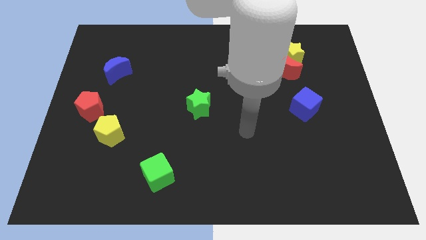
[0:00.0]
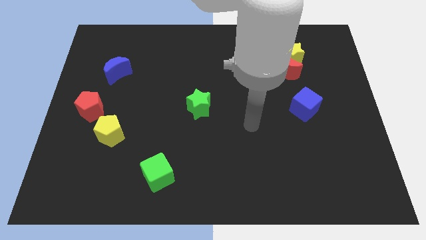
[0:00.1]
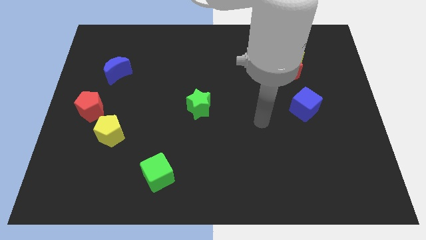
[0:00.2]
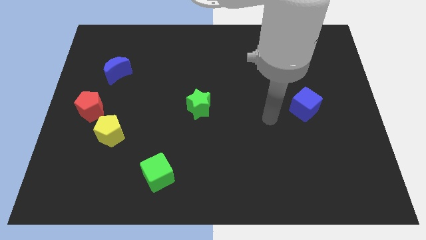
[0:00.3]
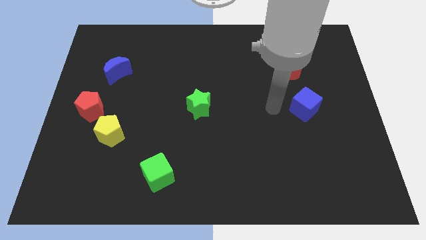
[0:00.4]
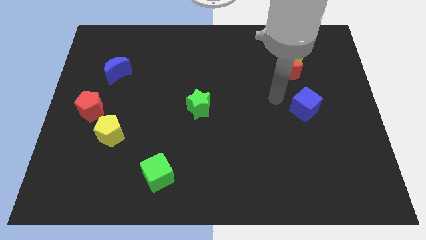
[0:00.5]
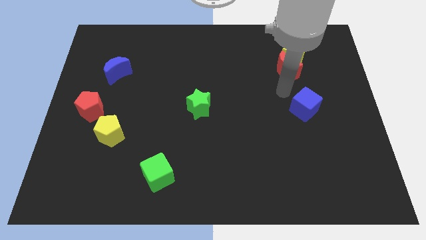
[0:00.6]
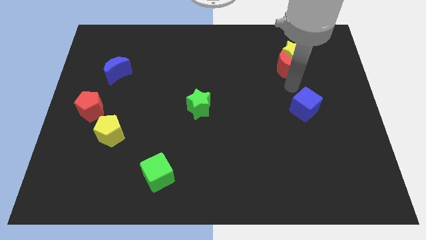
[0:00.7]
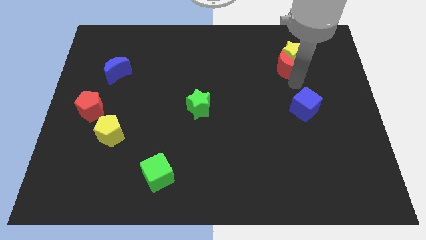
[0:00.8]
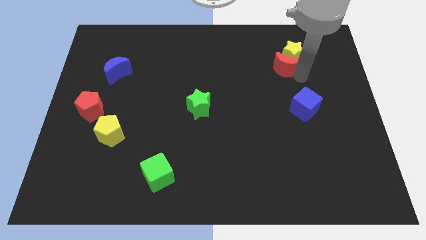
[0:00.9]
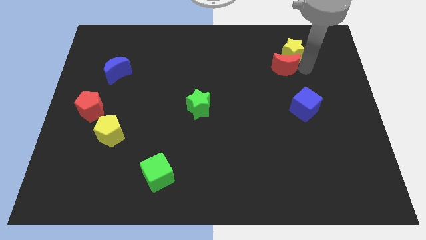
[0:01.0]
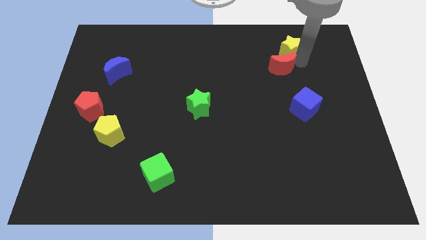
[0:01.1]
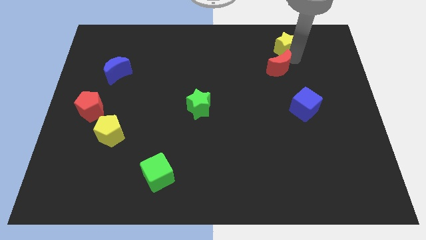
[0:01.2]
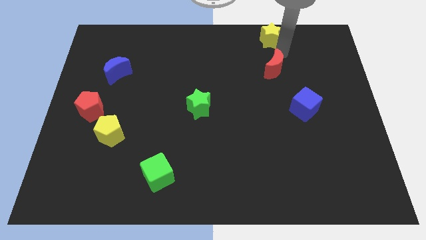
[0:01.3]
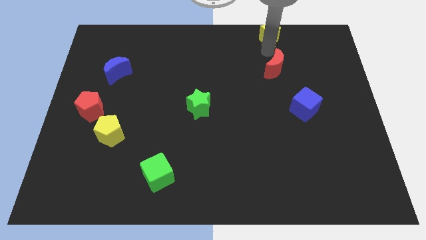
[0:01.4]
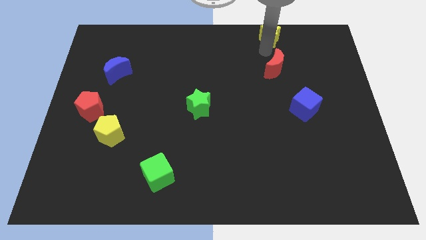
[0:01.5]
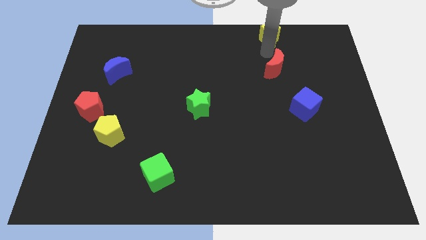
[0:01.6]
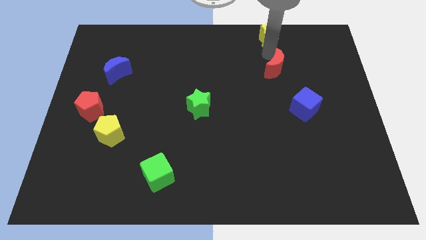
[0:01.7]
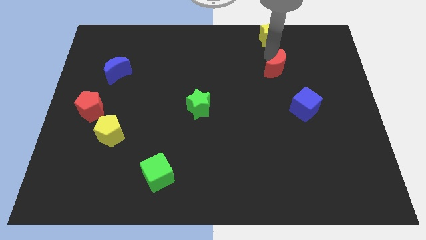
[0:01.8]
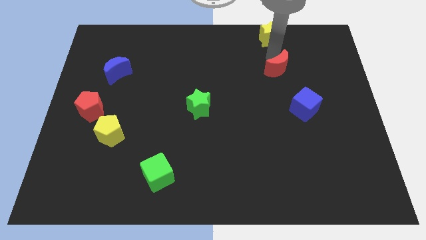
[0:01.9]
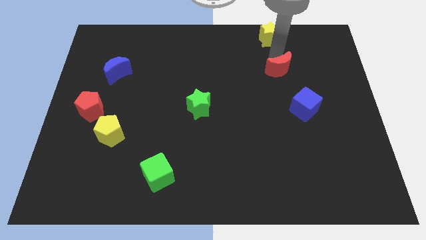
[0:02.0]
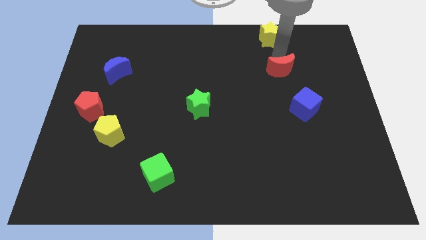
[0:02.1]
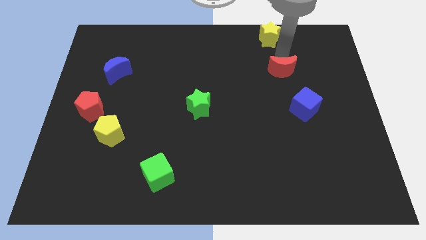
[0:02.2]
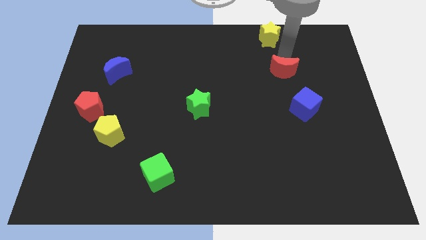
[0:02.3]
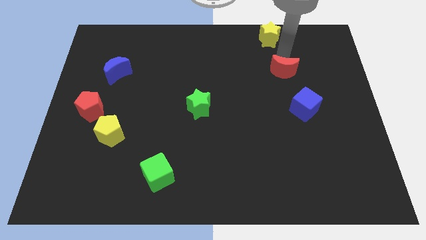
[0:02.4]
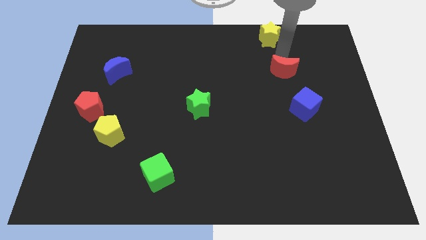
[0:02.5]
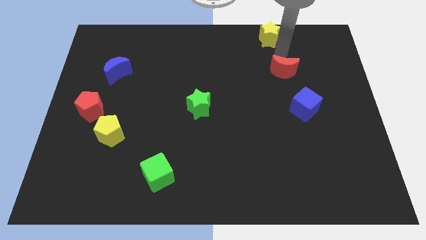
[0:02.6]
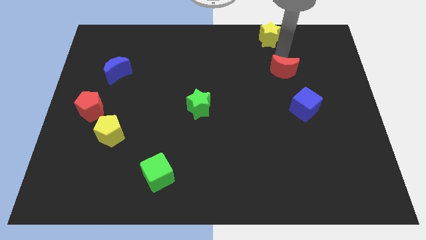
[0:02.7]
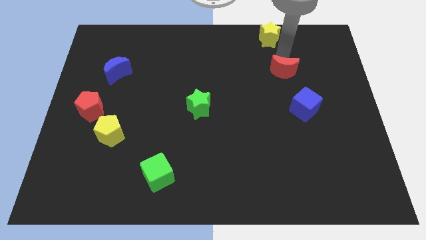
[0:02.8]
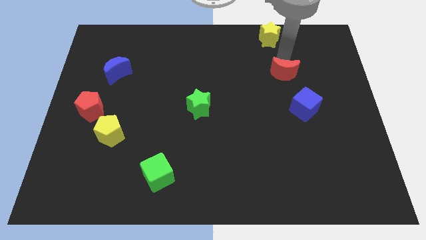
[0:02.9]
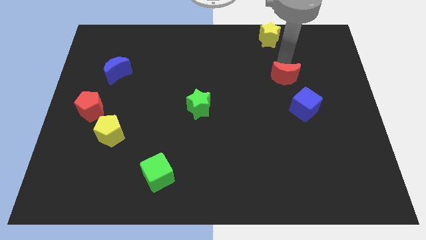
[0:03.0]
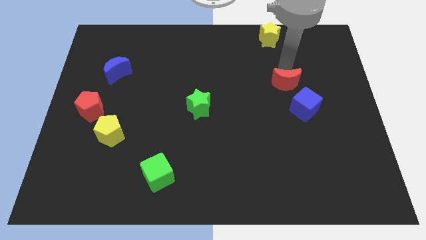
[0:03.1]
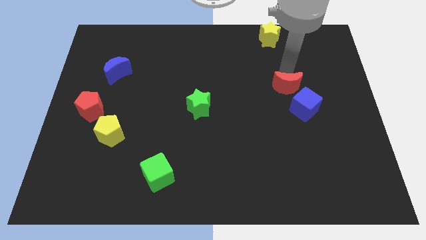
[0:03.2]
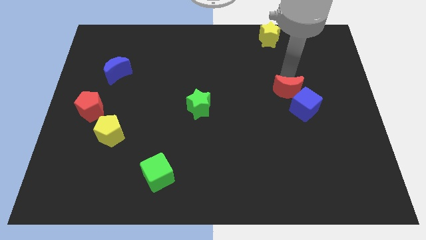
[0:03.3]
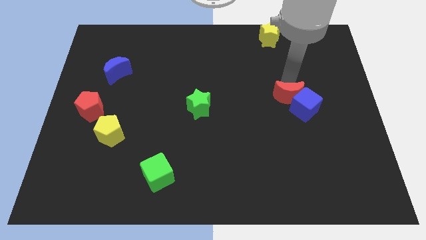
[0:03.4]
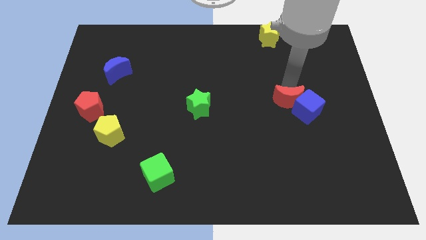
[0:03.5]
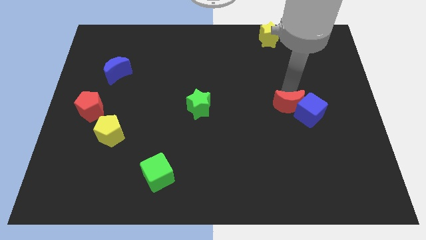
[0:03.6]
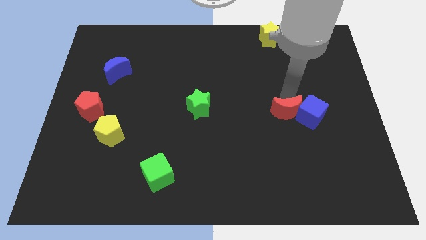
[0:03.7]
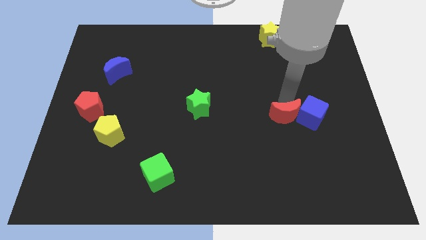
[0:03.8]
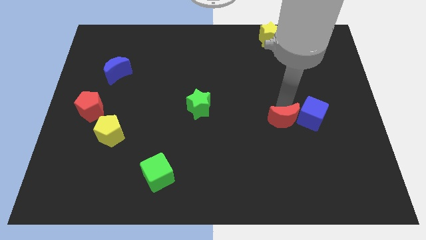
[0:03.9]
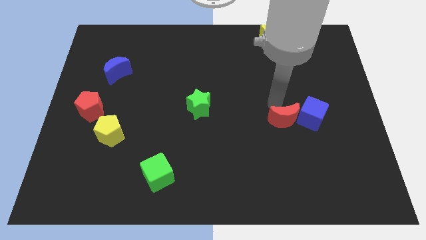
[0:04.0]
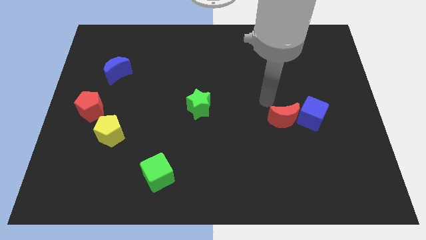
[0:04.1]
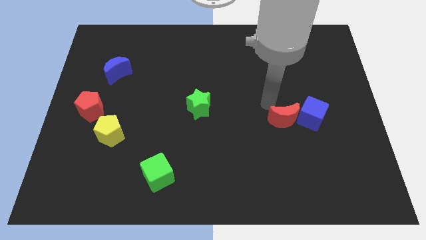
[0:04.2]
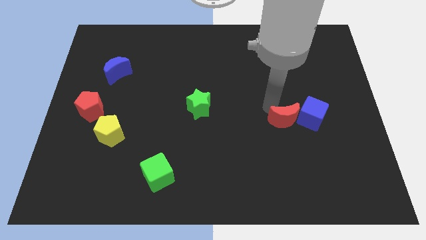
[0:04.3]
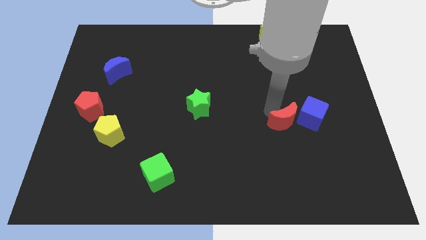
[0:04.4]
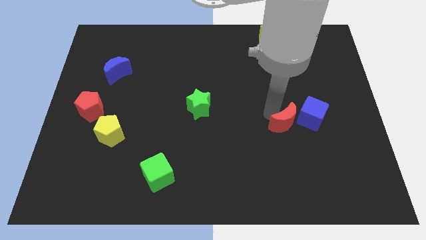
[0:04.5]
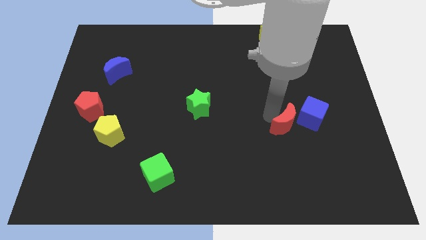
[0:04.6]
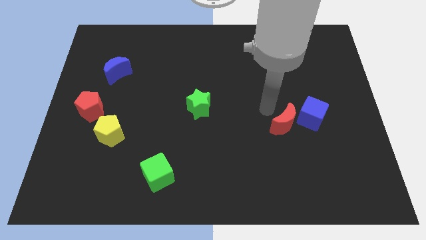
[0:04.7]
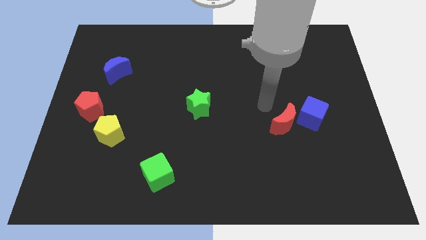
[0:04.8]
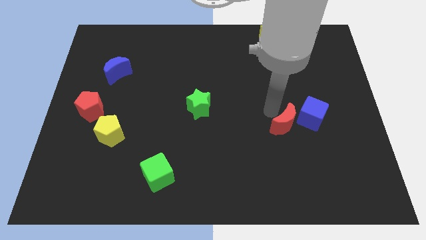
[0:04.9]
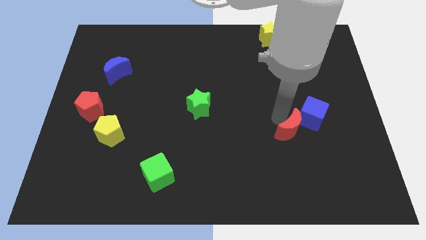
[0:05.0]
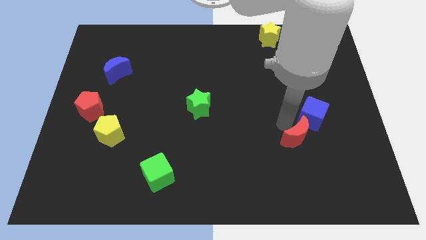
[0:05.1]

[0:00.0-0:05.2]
put the red moon to the bottom of the blue cube

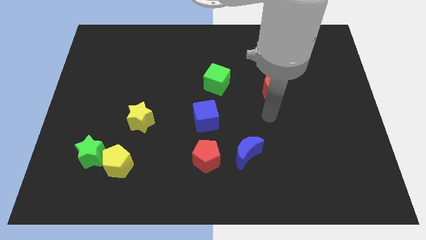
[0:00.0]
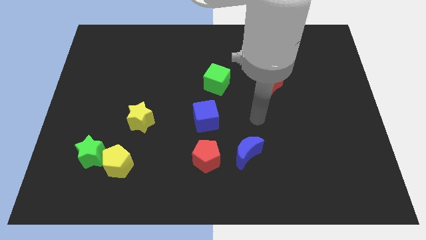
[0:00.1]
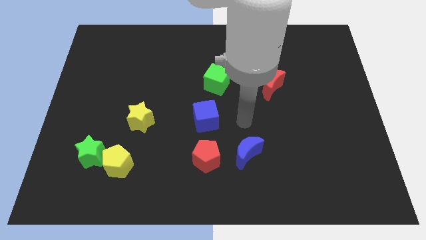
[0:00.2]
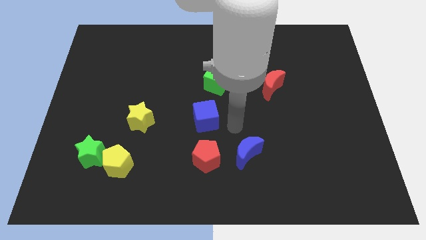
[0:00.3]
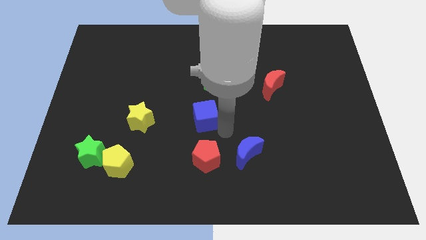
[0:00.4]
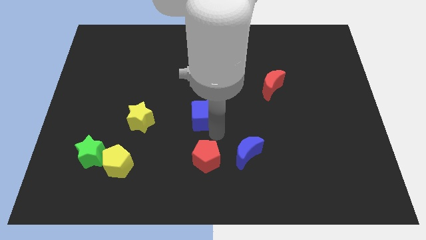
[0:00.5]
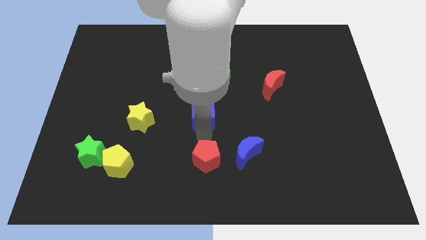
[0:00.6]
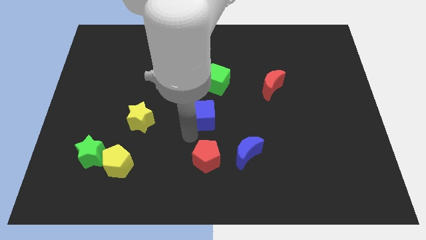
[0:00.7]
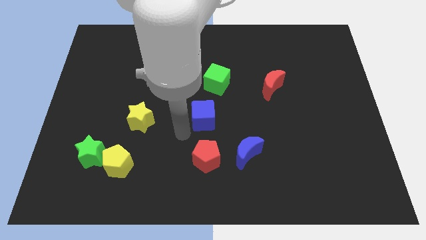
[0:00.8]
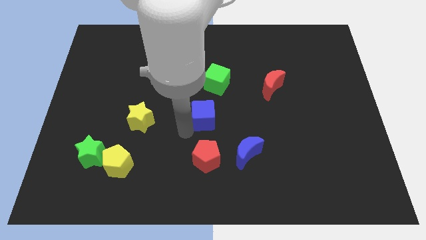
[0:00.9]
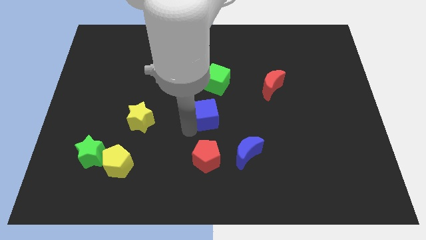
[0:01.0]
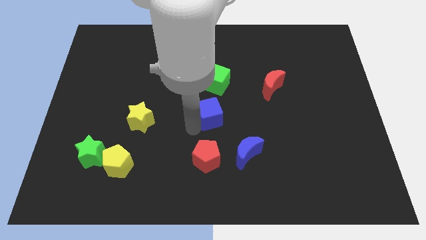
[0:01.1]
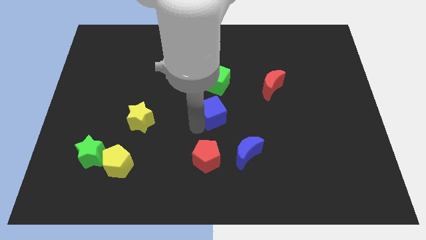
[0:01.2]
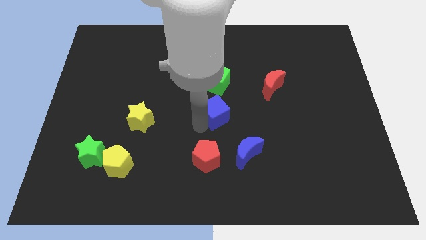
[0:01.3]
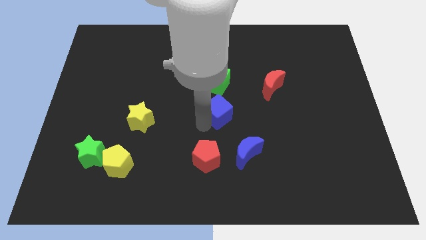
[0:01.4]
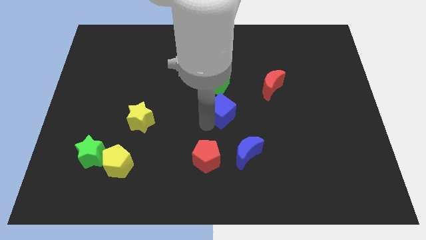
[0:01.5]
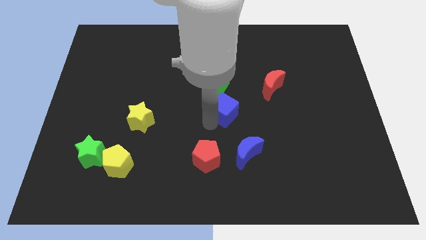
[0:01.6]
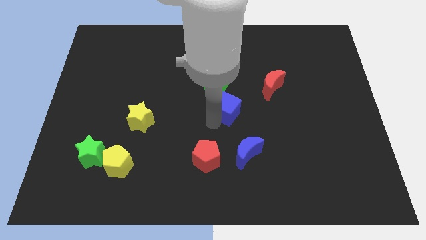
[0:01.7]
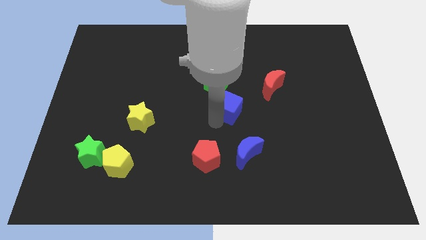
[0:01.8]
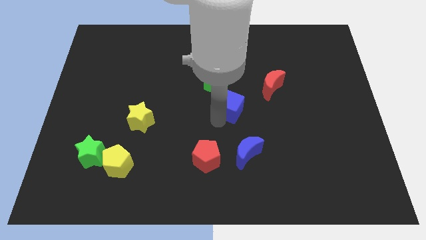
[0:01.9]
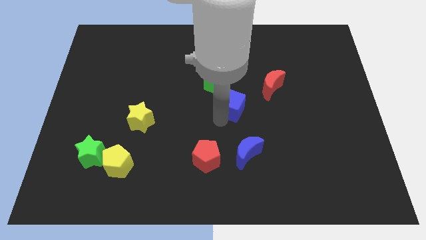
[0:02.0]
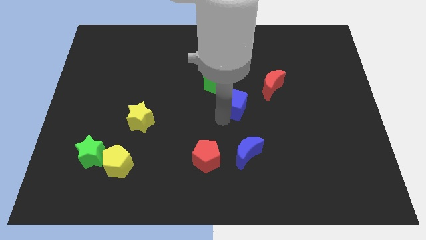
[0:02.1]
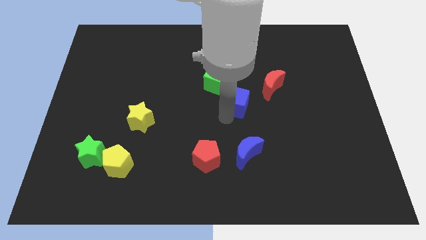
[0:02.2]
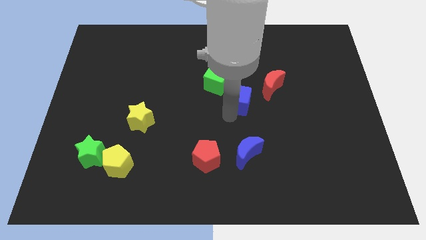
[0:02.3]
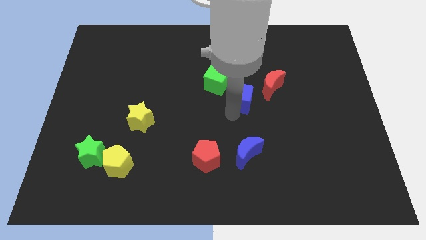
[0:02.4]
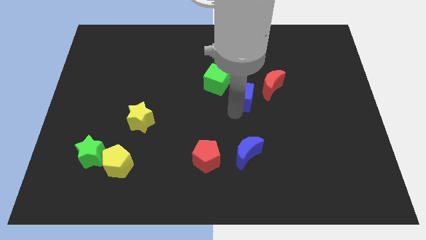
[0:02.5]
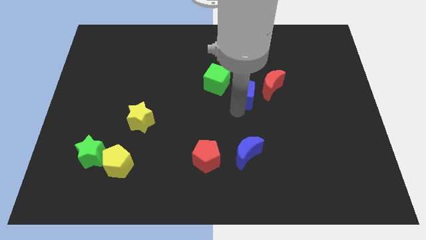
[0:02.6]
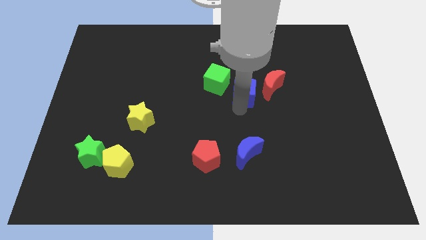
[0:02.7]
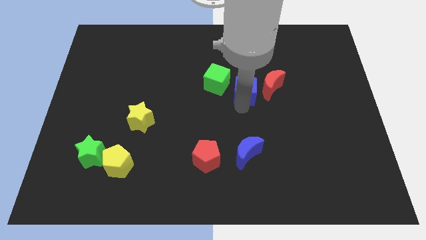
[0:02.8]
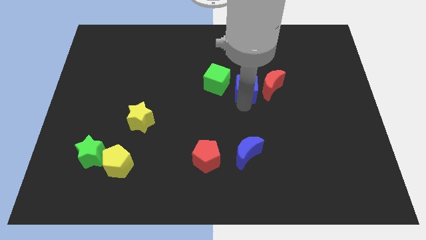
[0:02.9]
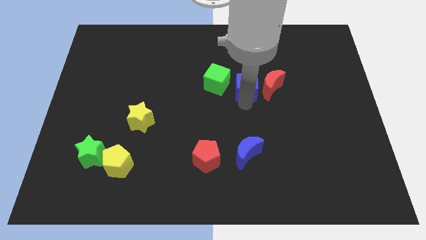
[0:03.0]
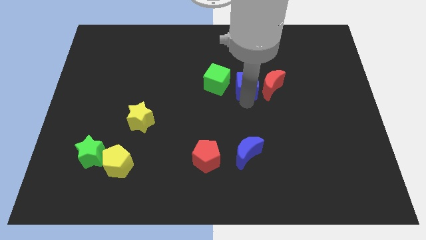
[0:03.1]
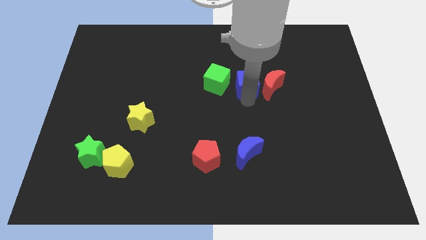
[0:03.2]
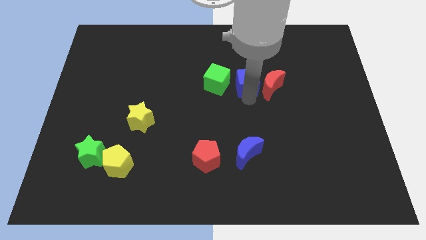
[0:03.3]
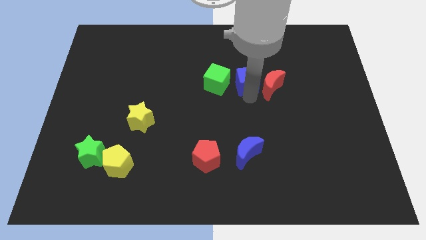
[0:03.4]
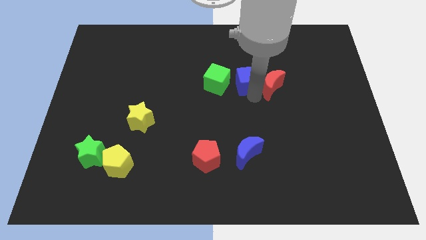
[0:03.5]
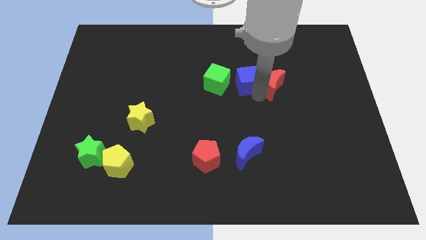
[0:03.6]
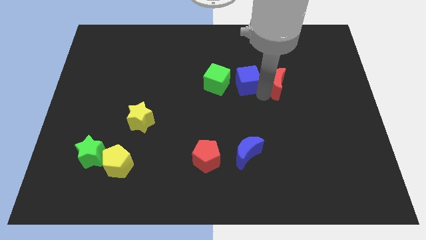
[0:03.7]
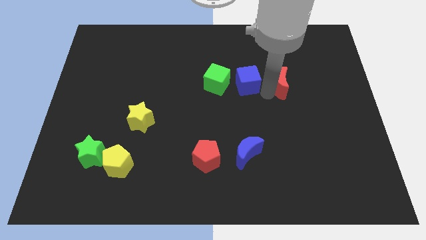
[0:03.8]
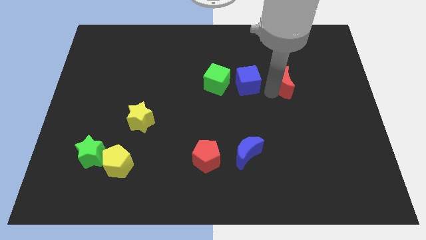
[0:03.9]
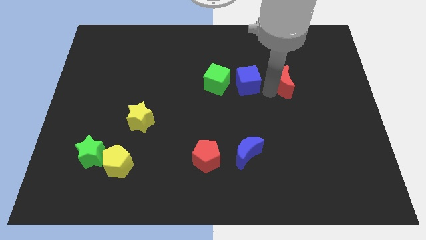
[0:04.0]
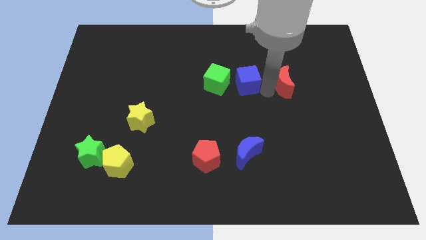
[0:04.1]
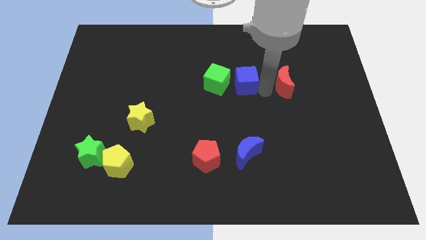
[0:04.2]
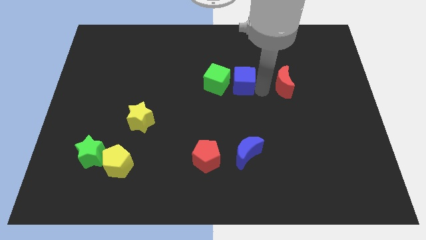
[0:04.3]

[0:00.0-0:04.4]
push the blue cube to the top right side of the green cube
